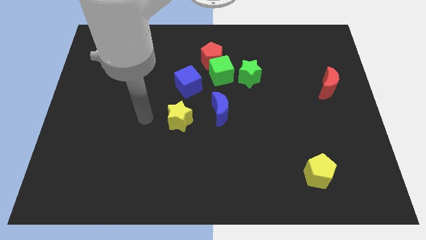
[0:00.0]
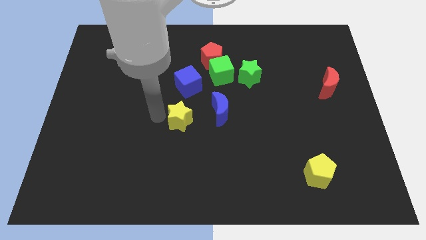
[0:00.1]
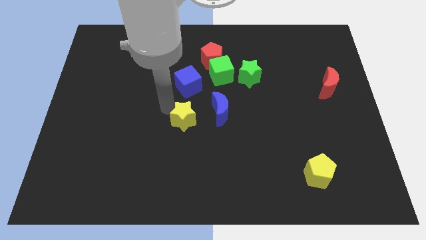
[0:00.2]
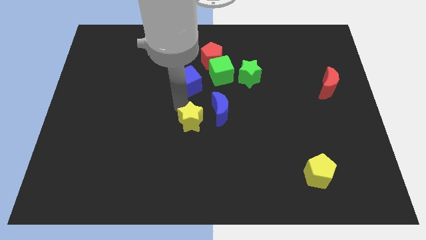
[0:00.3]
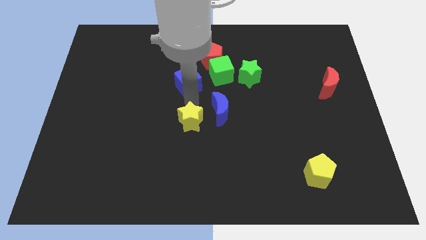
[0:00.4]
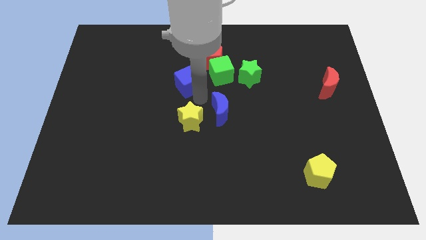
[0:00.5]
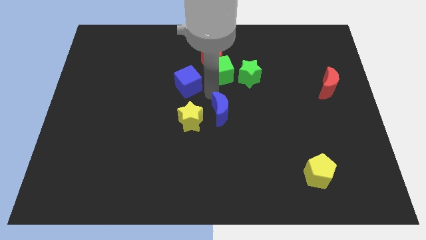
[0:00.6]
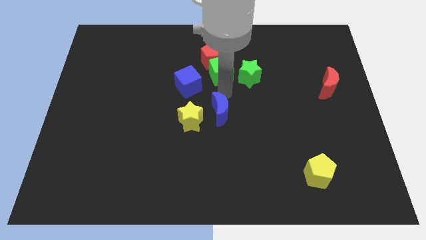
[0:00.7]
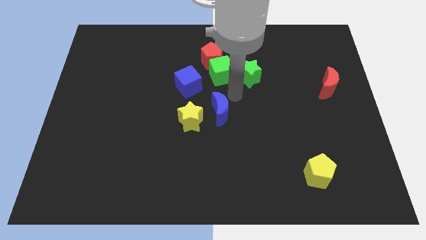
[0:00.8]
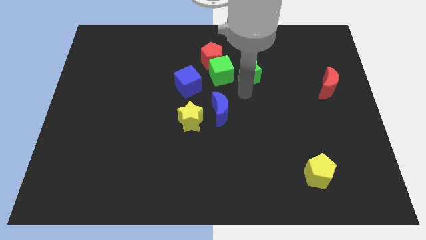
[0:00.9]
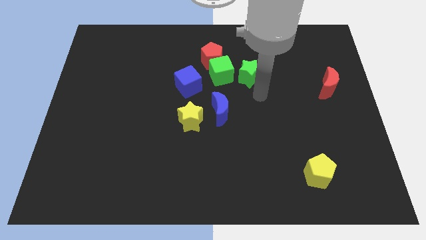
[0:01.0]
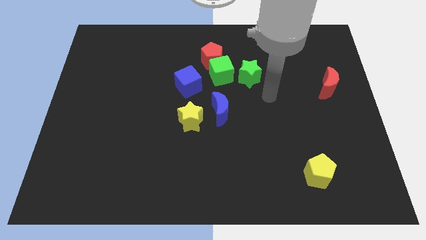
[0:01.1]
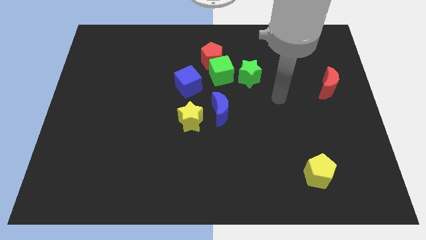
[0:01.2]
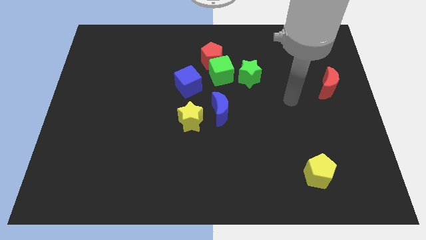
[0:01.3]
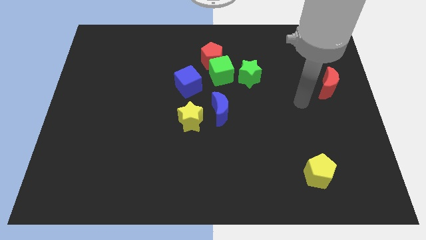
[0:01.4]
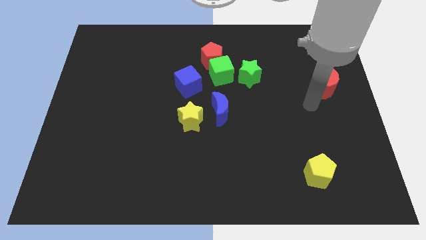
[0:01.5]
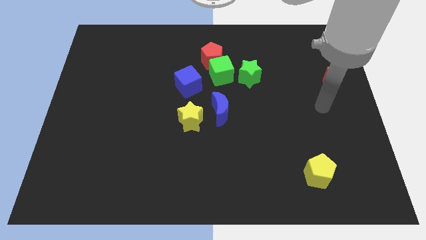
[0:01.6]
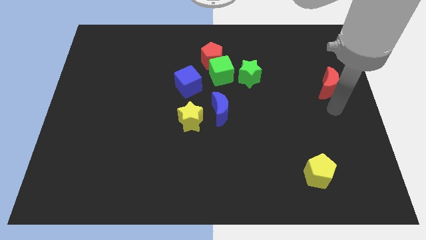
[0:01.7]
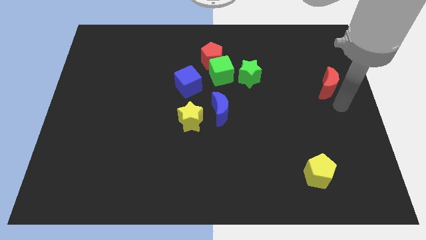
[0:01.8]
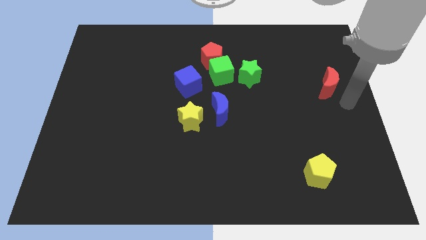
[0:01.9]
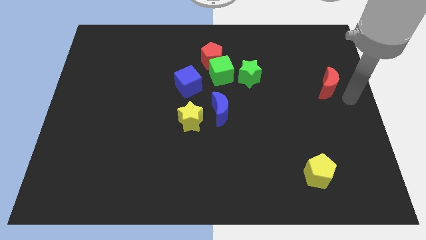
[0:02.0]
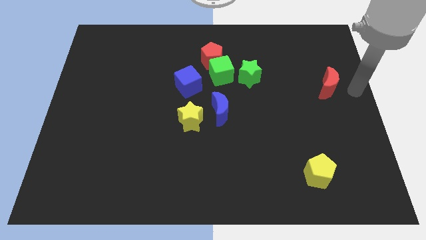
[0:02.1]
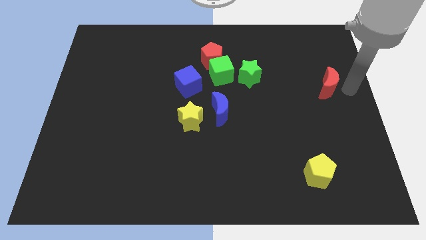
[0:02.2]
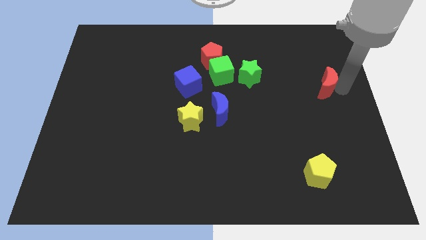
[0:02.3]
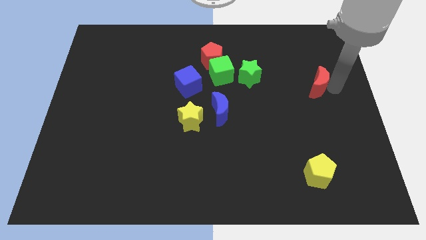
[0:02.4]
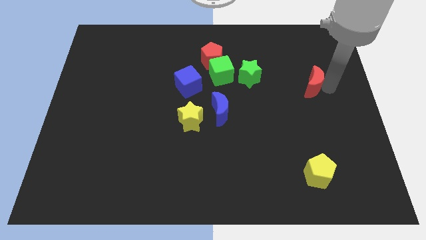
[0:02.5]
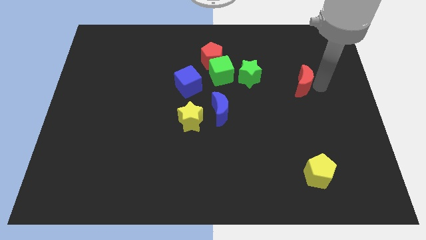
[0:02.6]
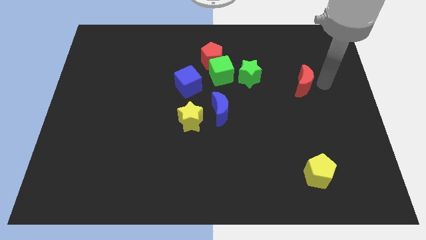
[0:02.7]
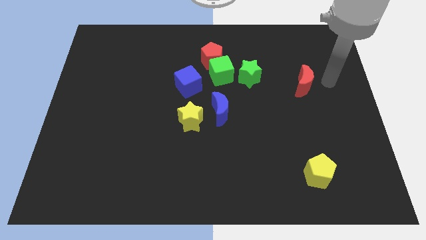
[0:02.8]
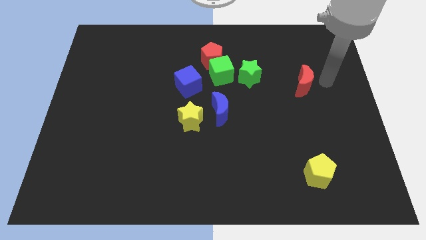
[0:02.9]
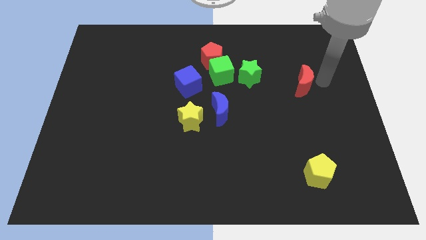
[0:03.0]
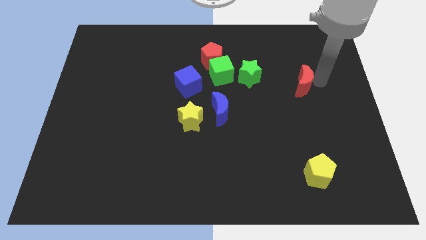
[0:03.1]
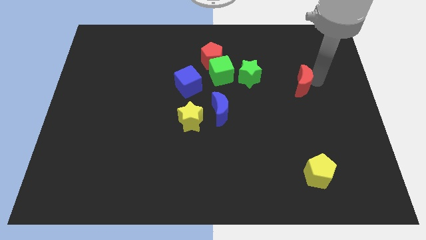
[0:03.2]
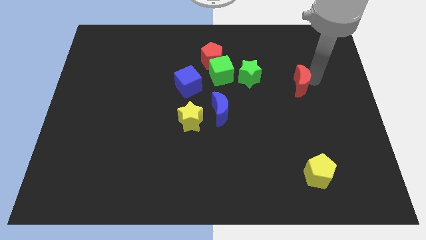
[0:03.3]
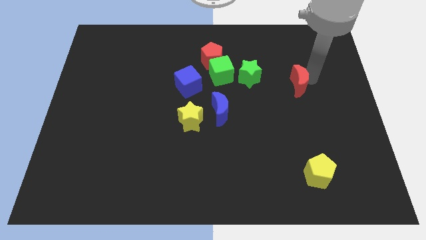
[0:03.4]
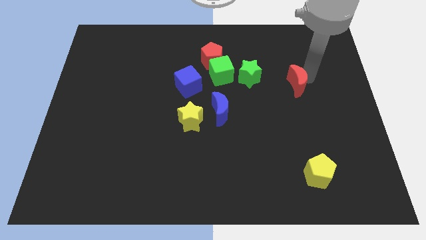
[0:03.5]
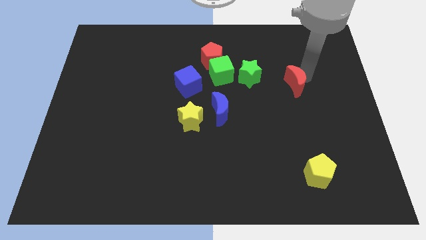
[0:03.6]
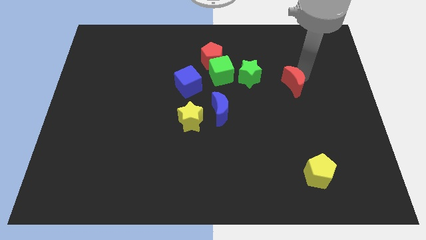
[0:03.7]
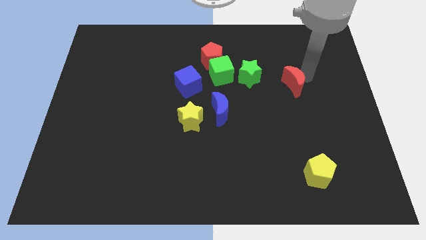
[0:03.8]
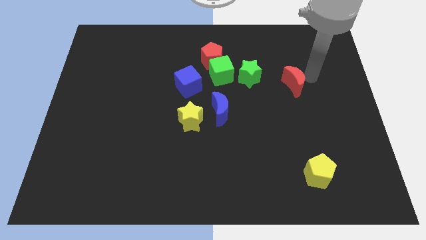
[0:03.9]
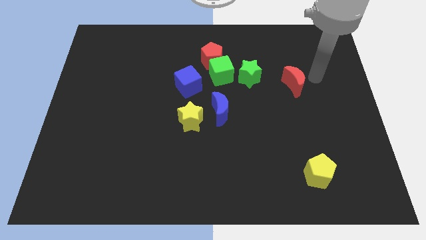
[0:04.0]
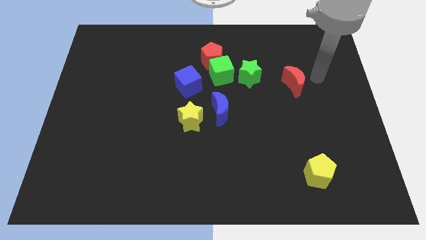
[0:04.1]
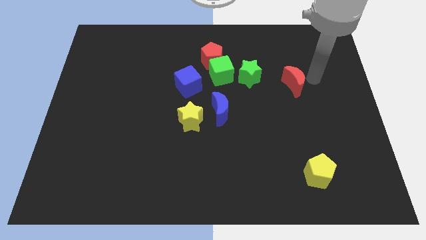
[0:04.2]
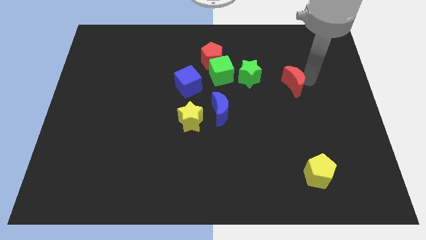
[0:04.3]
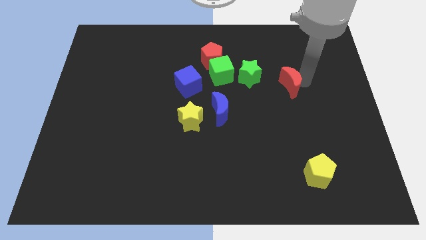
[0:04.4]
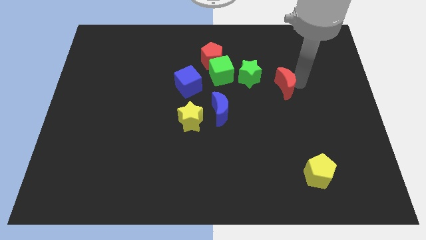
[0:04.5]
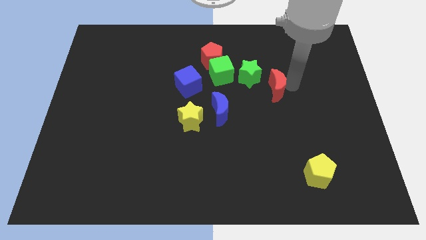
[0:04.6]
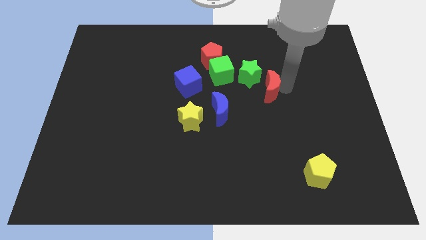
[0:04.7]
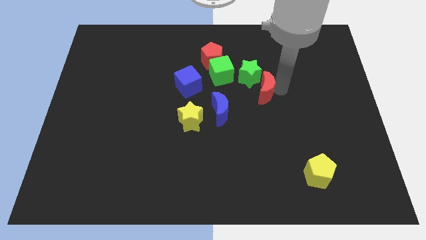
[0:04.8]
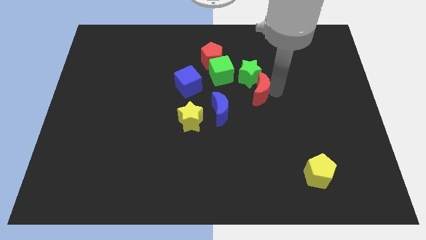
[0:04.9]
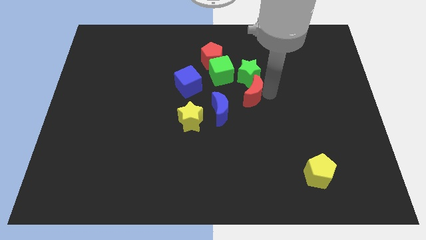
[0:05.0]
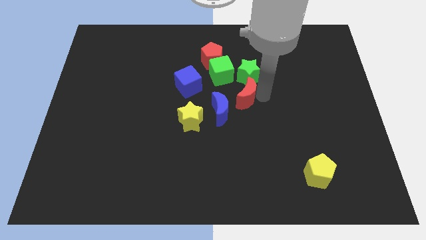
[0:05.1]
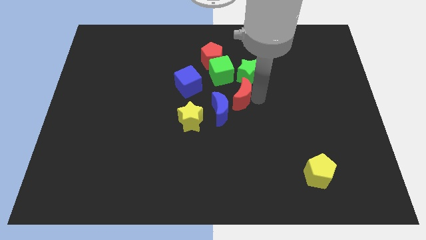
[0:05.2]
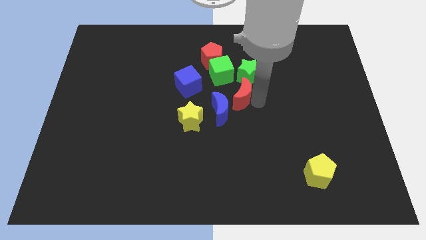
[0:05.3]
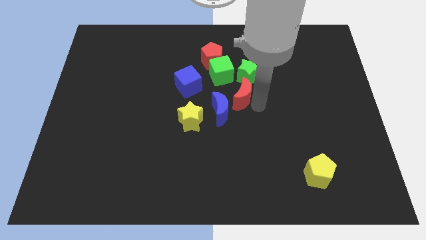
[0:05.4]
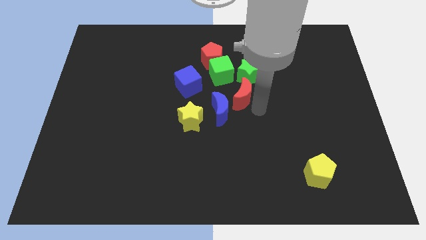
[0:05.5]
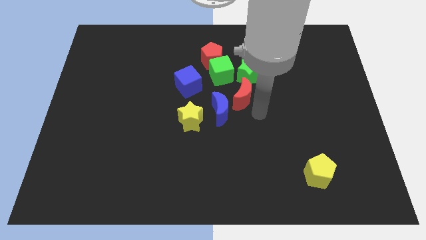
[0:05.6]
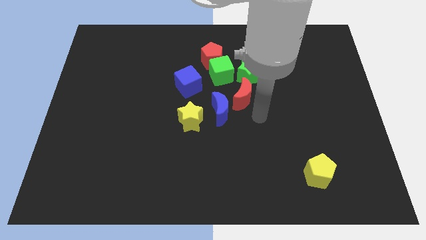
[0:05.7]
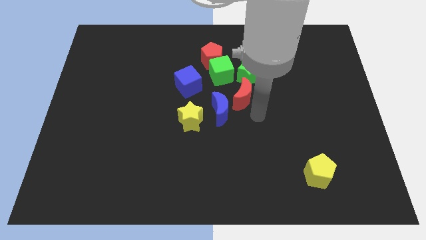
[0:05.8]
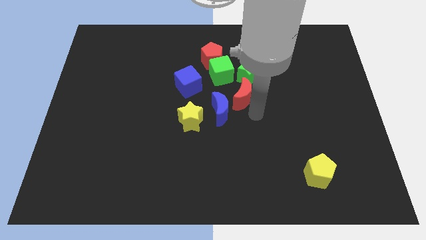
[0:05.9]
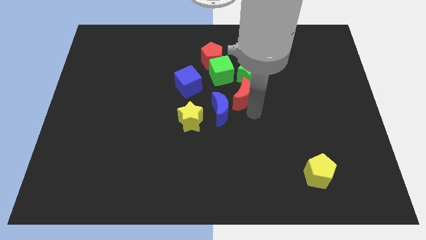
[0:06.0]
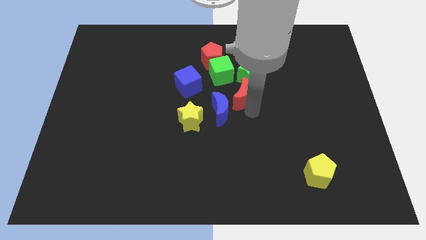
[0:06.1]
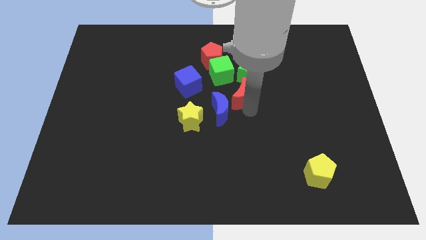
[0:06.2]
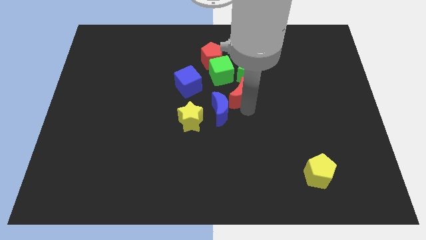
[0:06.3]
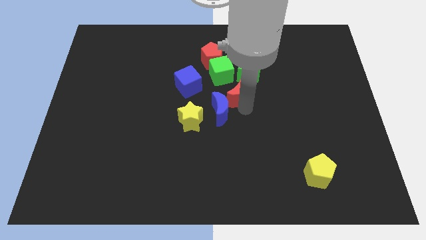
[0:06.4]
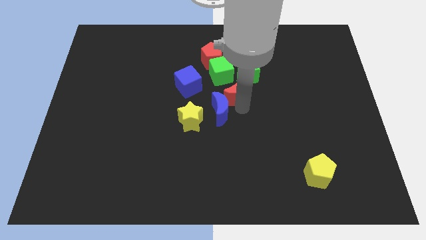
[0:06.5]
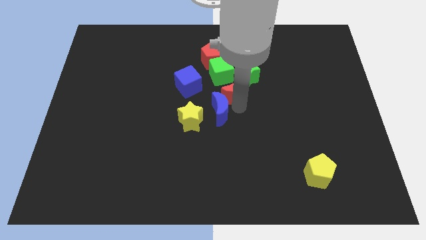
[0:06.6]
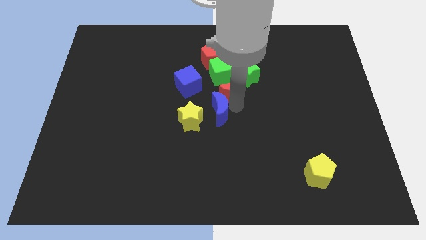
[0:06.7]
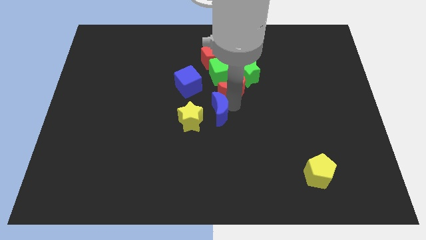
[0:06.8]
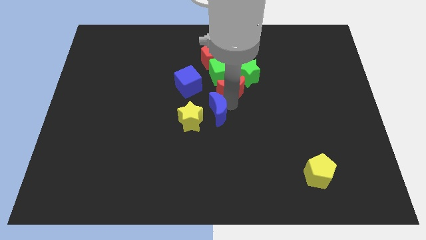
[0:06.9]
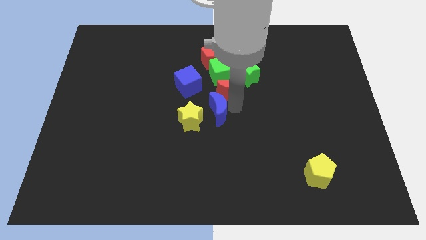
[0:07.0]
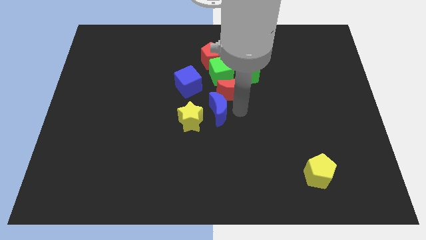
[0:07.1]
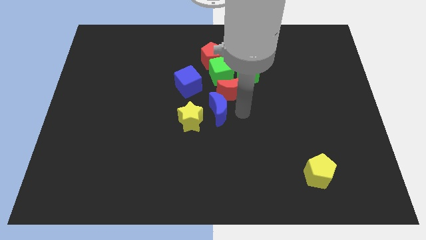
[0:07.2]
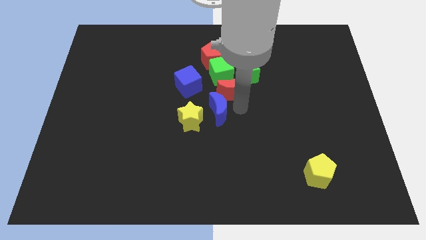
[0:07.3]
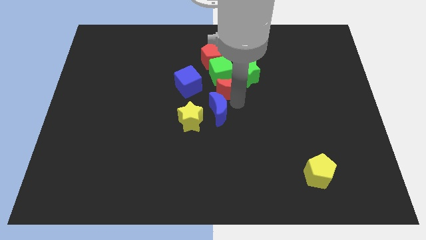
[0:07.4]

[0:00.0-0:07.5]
put the red moon to the green cube
